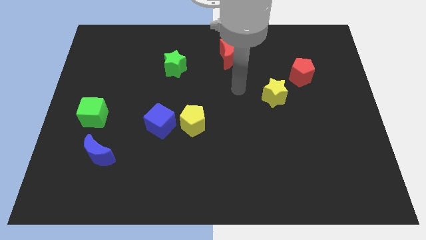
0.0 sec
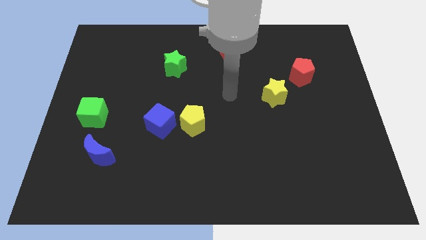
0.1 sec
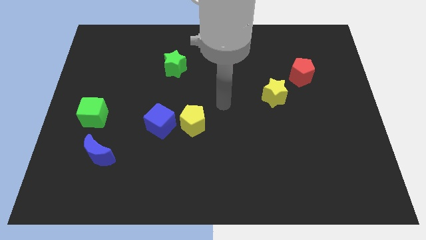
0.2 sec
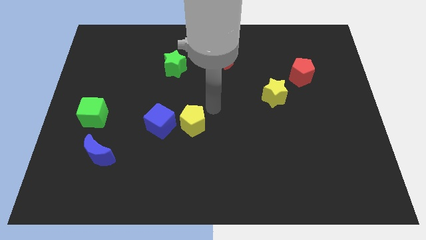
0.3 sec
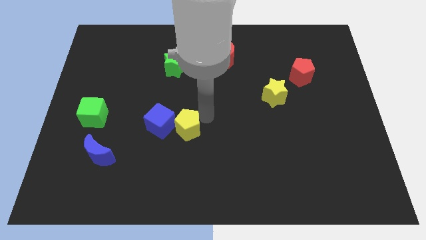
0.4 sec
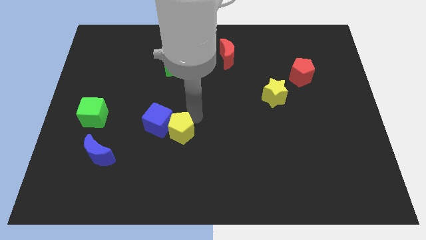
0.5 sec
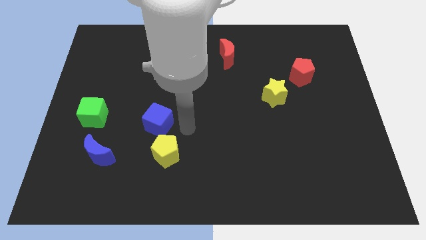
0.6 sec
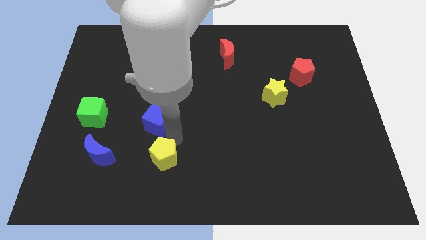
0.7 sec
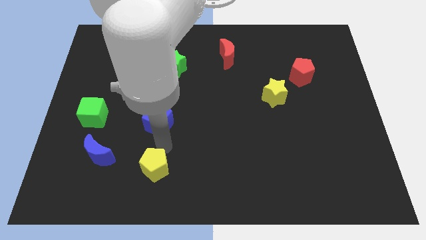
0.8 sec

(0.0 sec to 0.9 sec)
move the blue cube away from the yellow pentagon

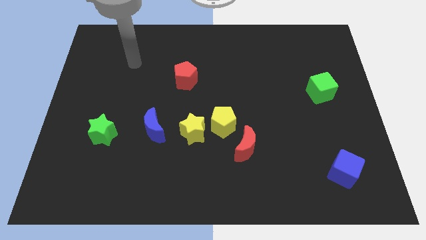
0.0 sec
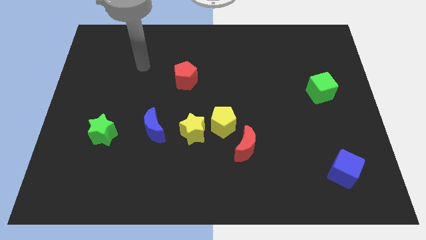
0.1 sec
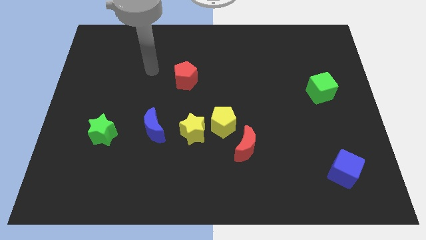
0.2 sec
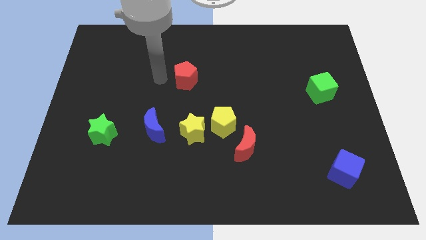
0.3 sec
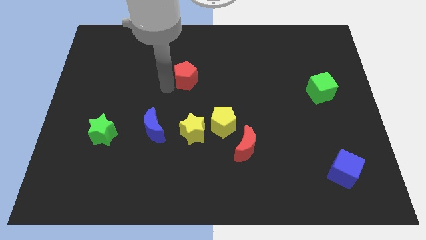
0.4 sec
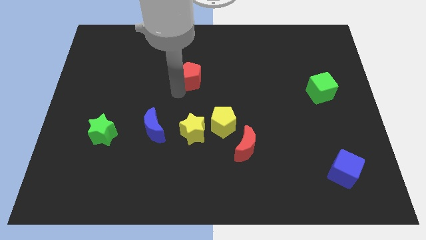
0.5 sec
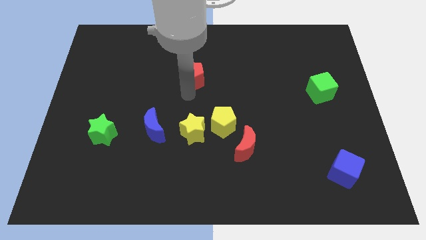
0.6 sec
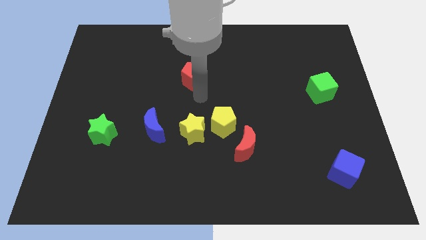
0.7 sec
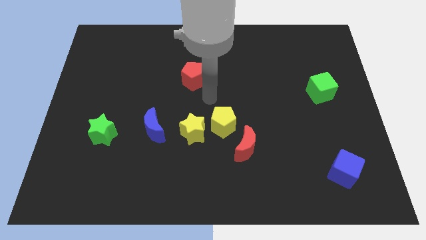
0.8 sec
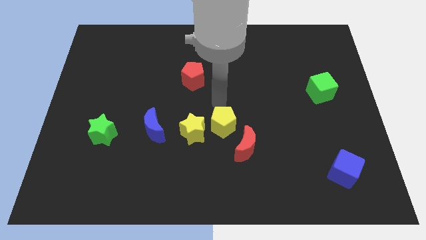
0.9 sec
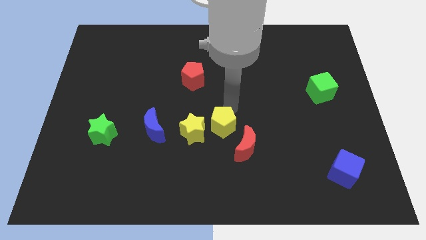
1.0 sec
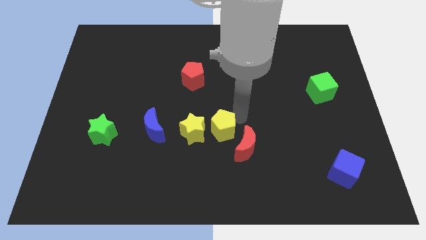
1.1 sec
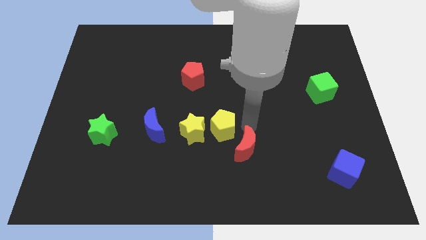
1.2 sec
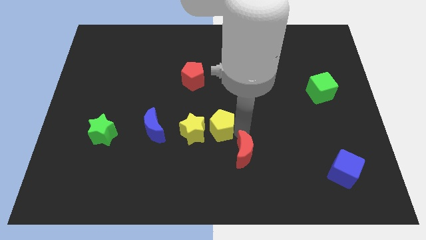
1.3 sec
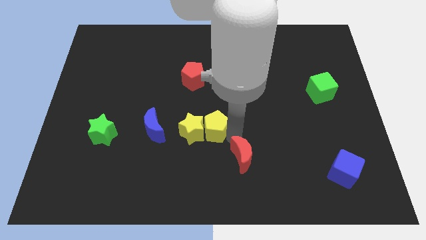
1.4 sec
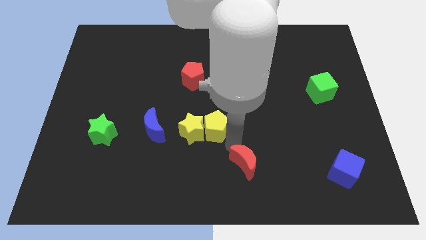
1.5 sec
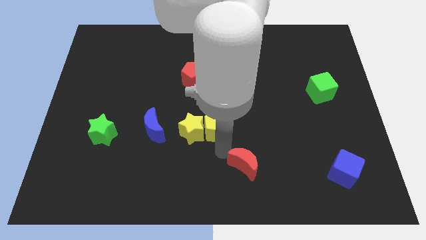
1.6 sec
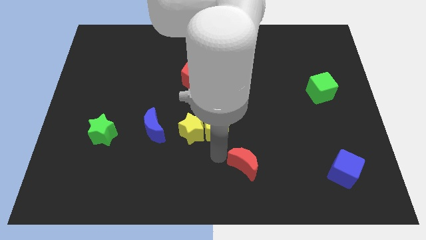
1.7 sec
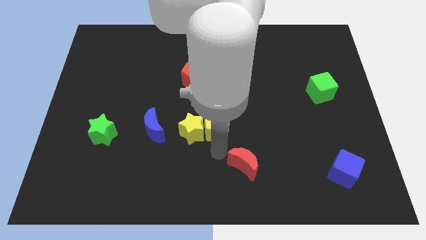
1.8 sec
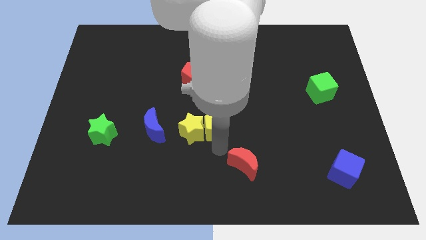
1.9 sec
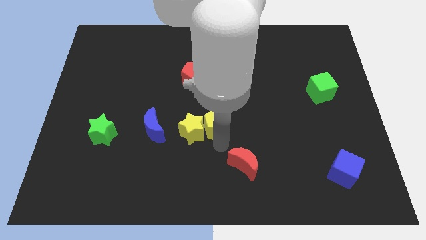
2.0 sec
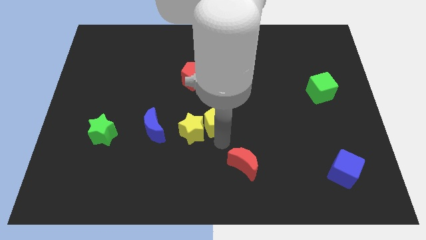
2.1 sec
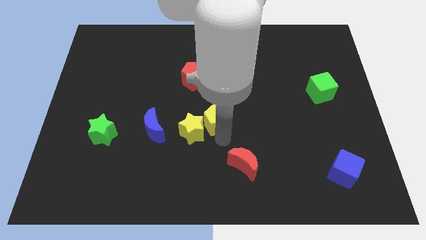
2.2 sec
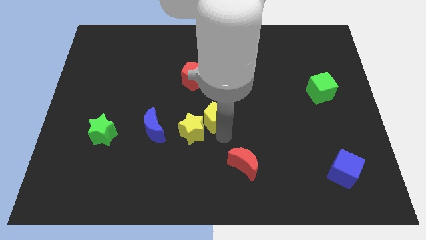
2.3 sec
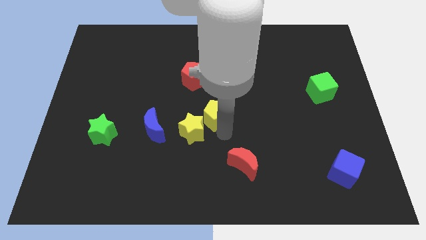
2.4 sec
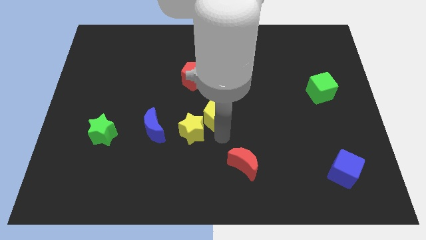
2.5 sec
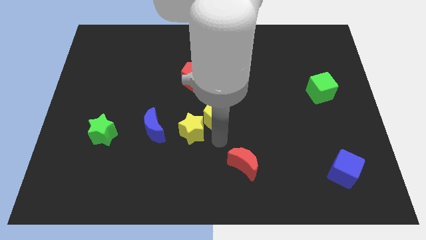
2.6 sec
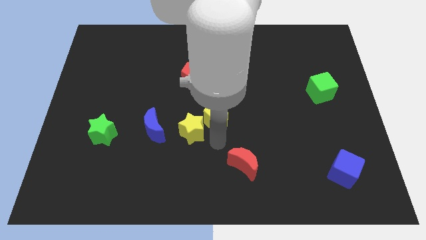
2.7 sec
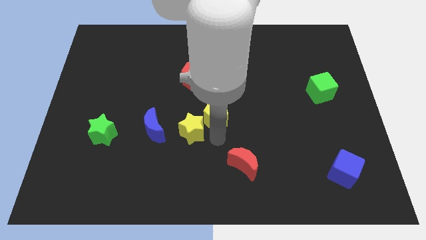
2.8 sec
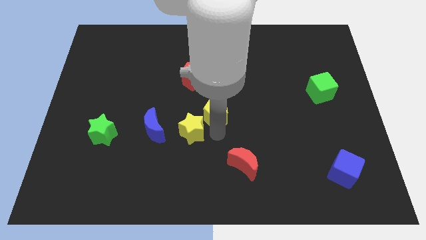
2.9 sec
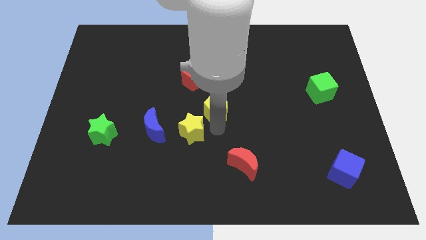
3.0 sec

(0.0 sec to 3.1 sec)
separate the yellow pentagon from the yellow star and red moon

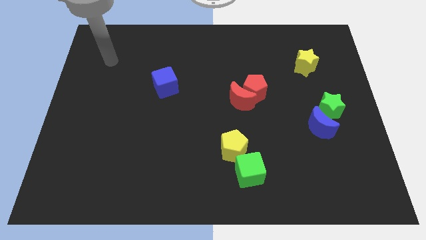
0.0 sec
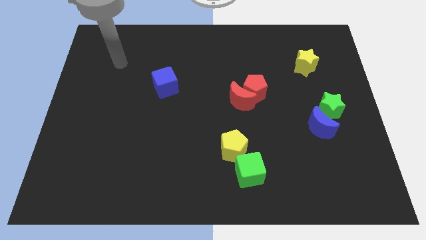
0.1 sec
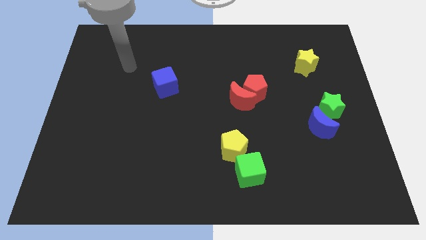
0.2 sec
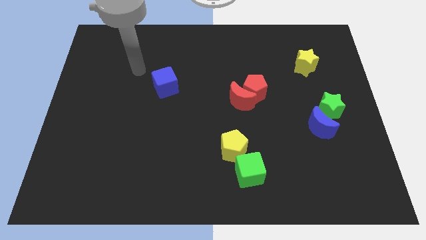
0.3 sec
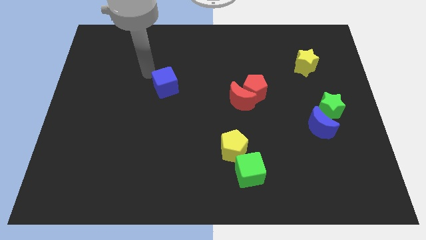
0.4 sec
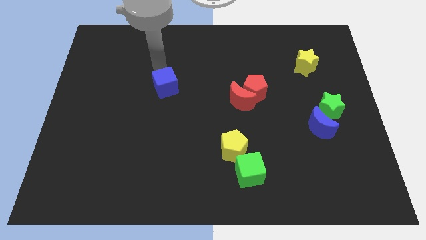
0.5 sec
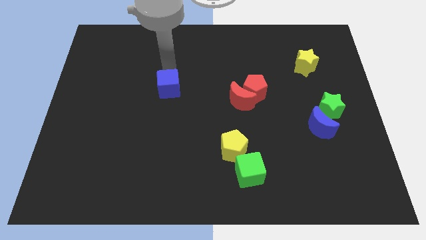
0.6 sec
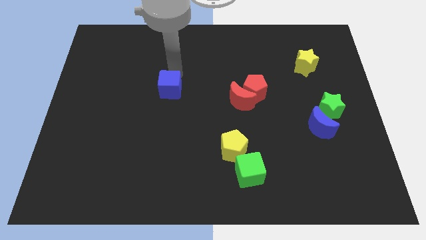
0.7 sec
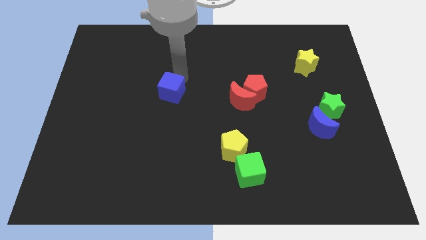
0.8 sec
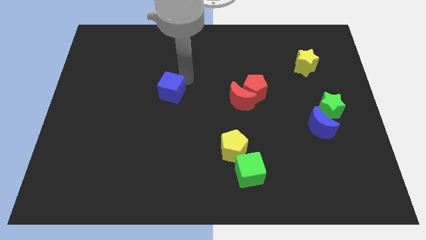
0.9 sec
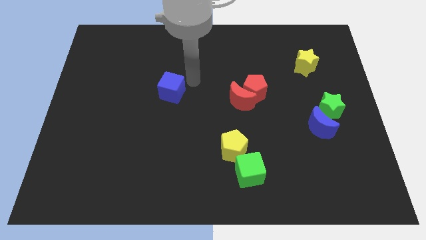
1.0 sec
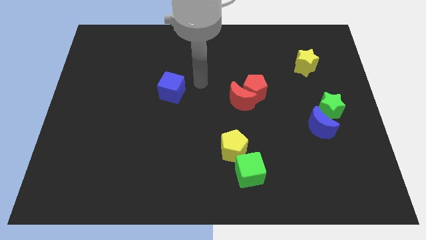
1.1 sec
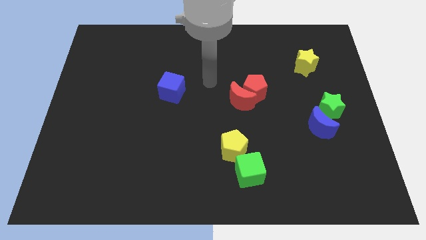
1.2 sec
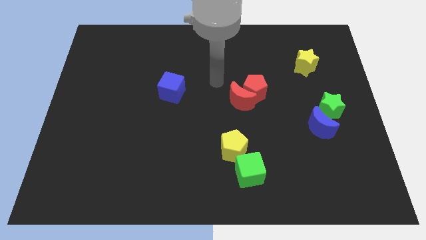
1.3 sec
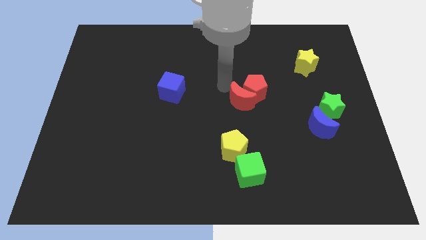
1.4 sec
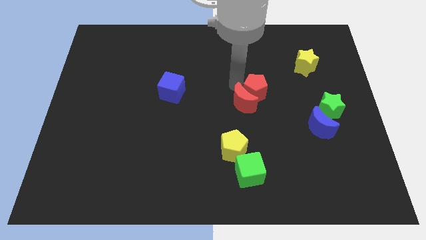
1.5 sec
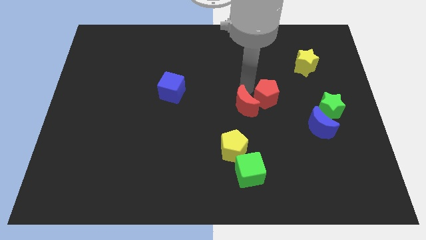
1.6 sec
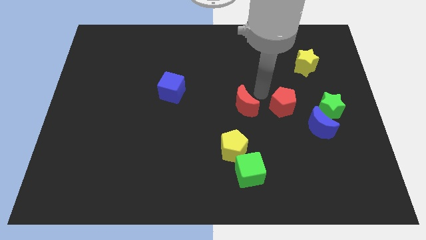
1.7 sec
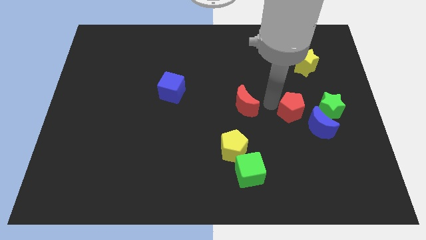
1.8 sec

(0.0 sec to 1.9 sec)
pull the red moon apart from the red pentagon

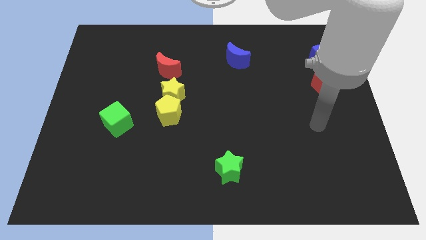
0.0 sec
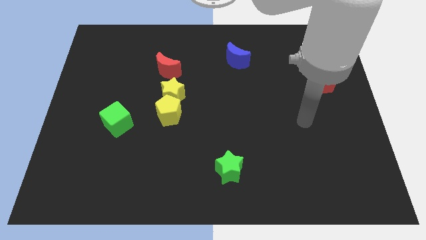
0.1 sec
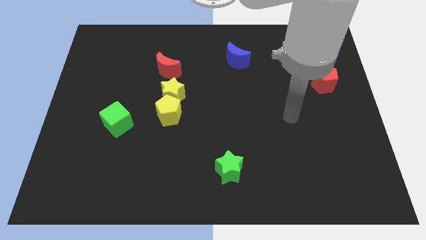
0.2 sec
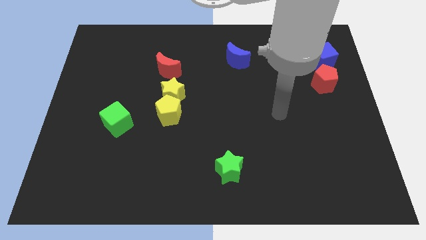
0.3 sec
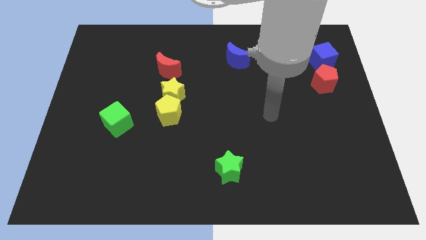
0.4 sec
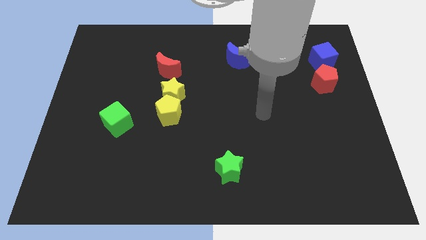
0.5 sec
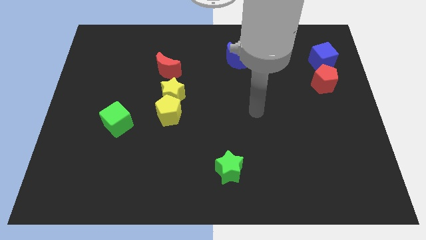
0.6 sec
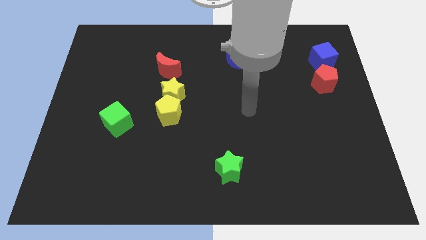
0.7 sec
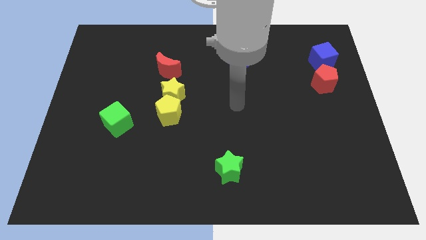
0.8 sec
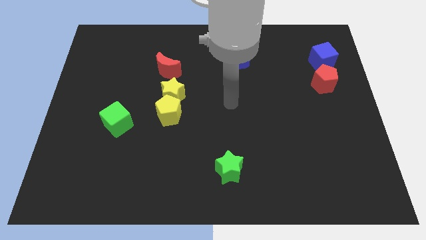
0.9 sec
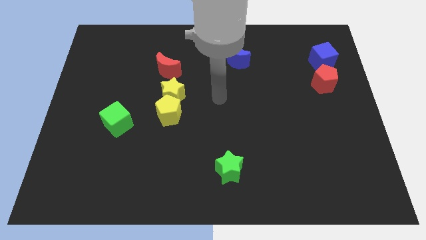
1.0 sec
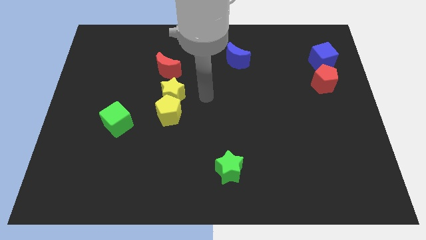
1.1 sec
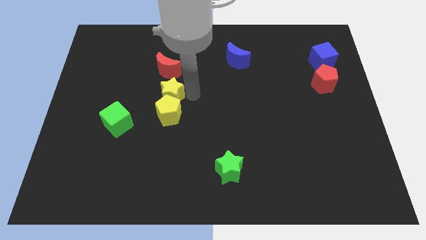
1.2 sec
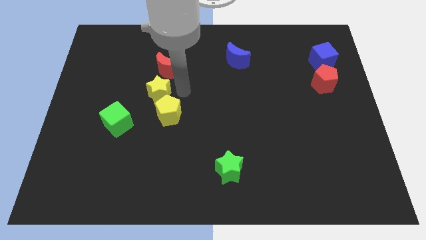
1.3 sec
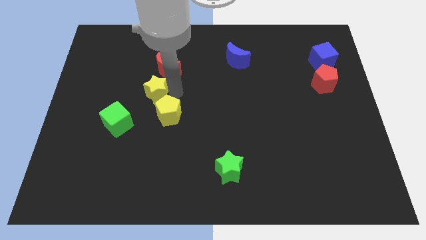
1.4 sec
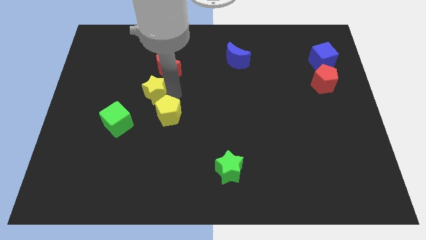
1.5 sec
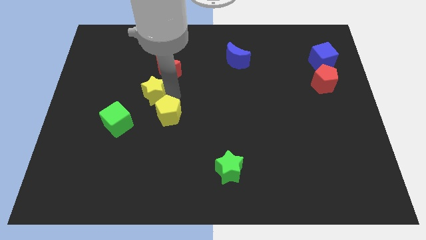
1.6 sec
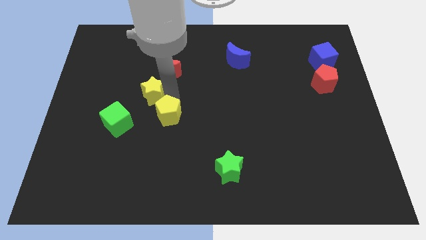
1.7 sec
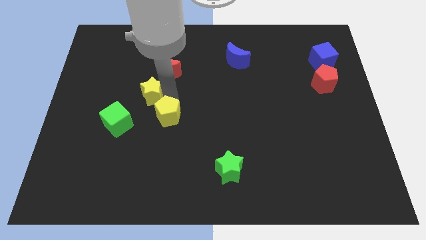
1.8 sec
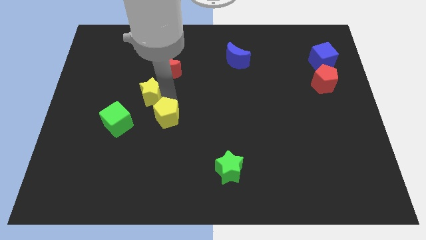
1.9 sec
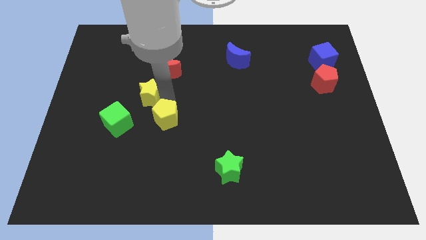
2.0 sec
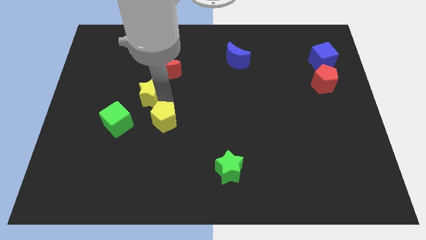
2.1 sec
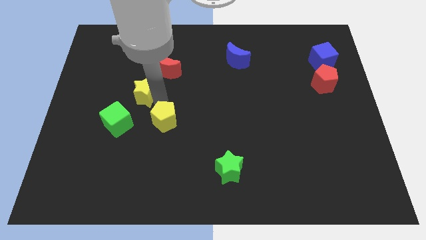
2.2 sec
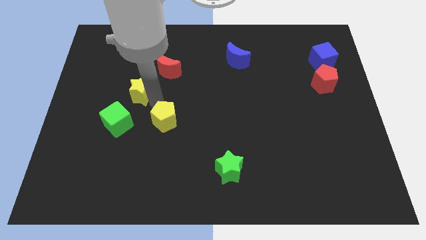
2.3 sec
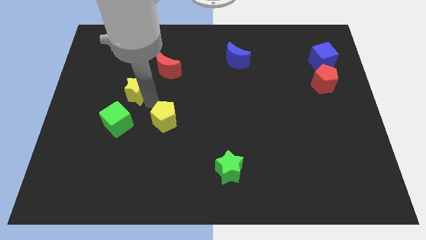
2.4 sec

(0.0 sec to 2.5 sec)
separate the yellow pentagon from the yellow star

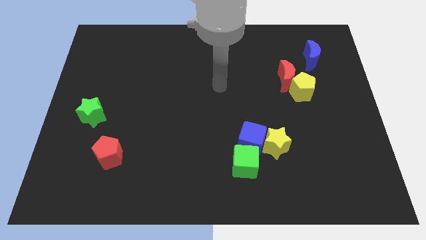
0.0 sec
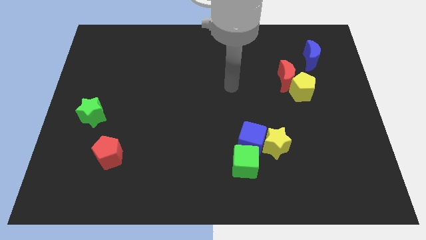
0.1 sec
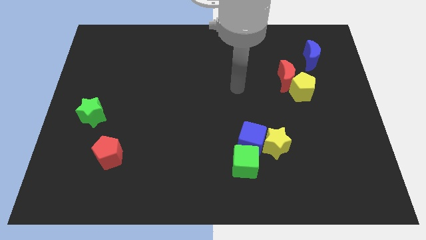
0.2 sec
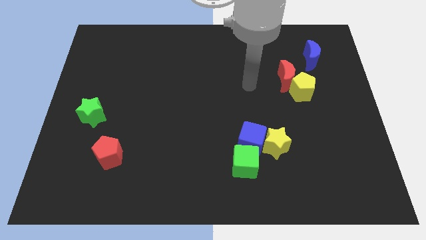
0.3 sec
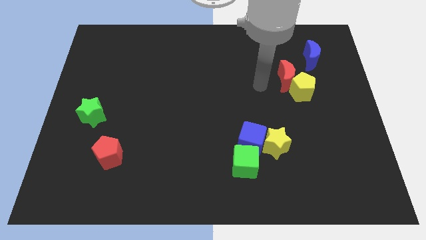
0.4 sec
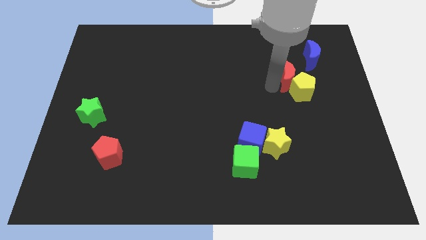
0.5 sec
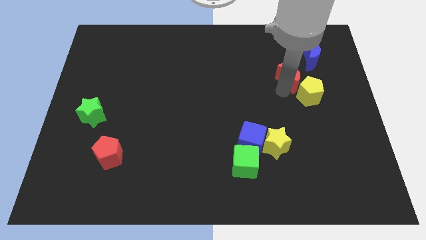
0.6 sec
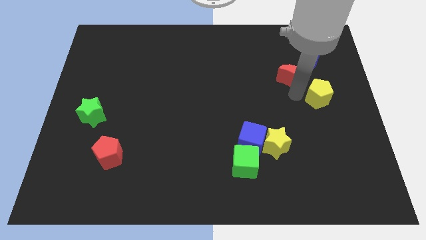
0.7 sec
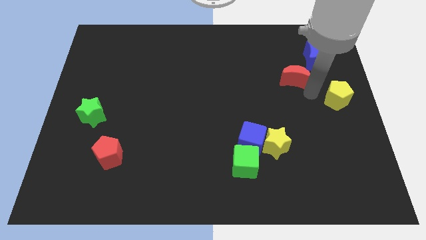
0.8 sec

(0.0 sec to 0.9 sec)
pull the red moon apart from the yellow pentagon
